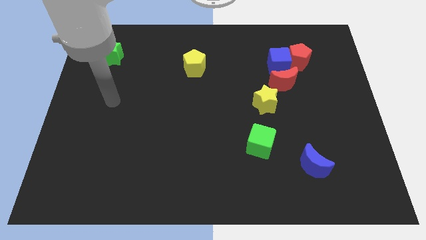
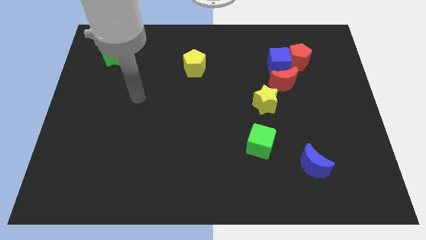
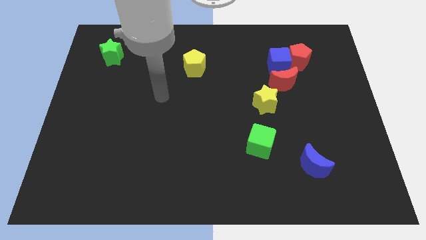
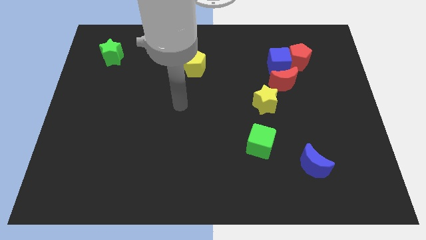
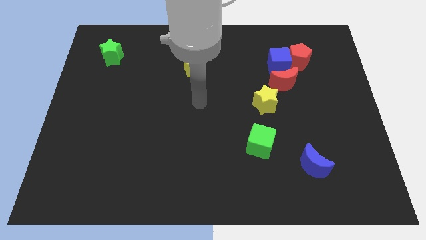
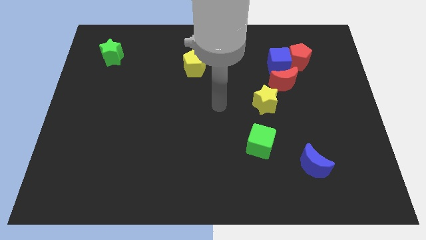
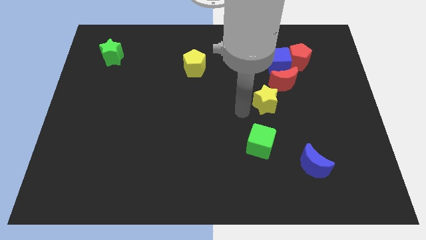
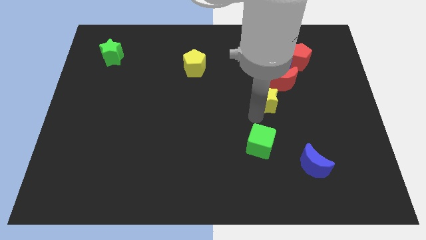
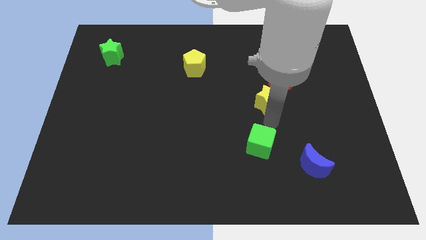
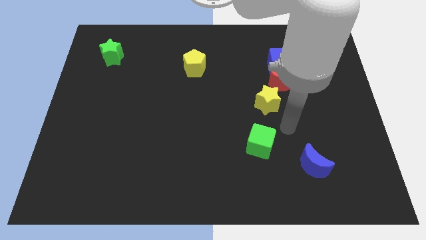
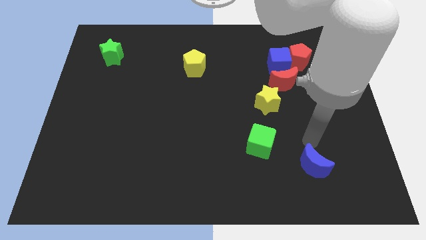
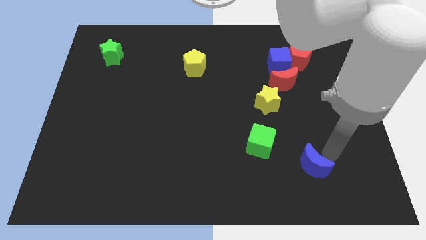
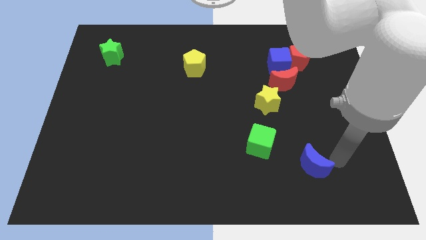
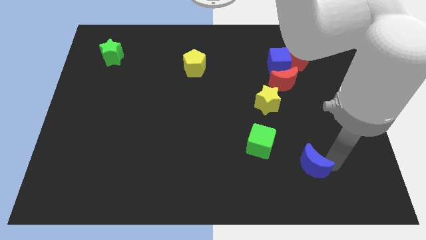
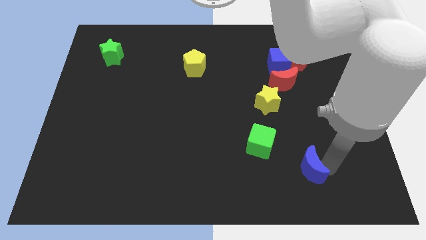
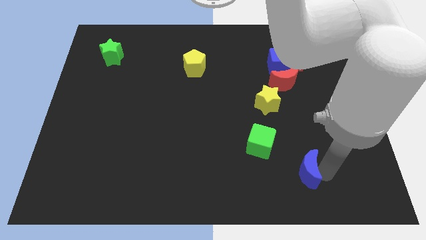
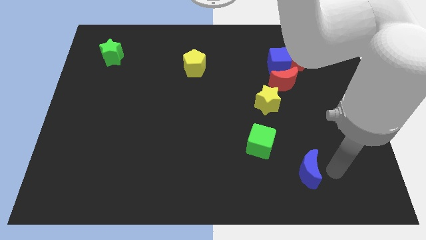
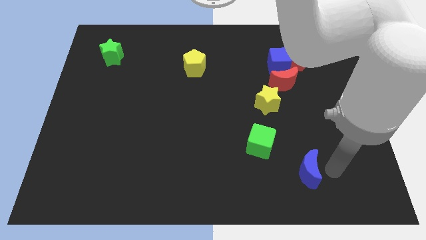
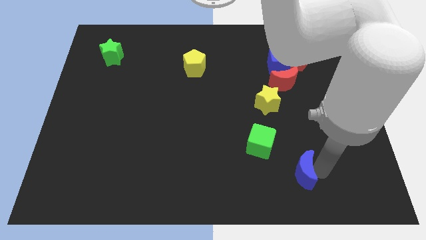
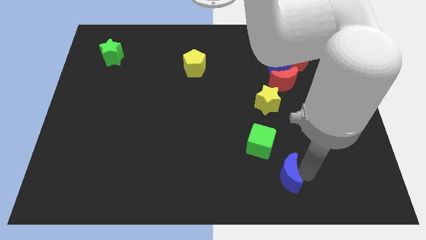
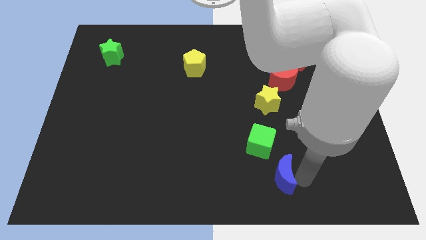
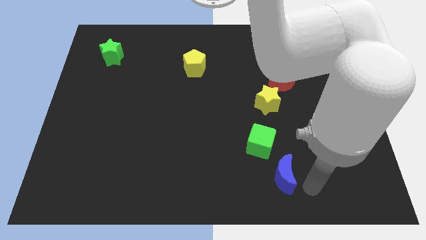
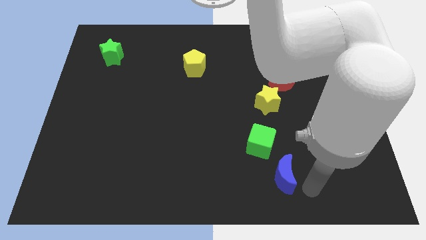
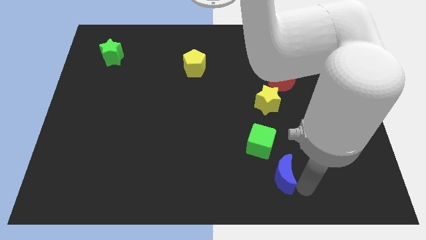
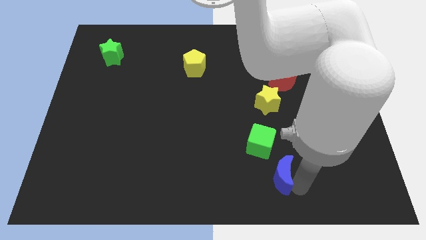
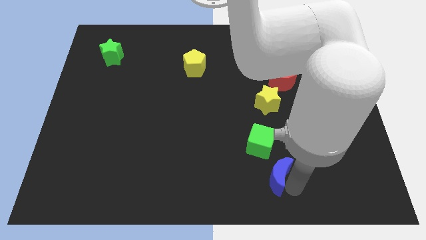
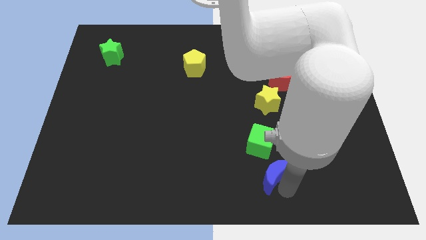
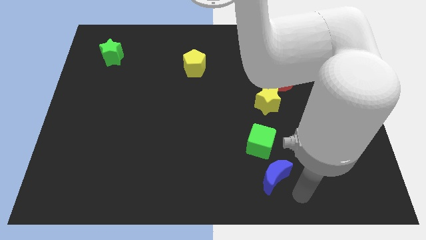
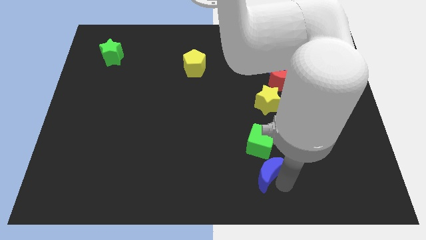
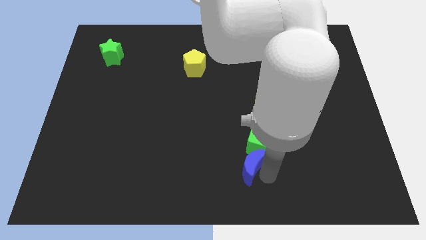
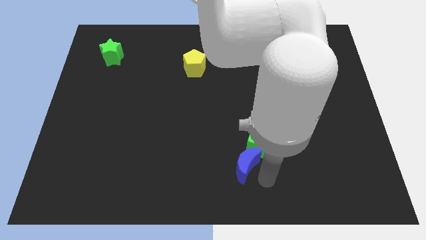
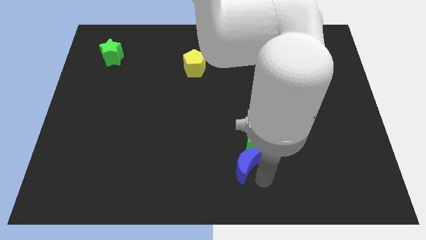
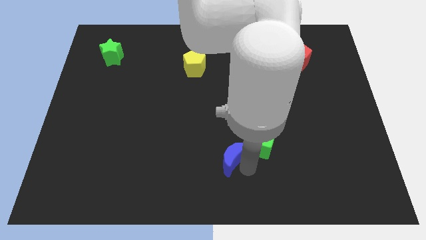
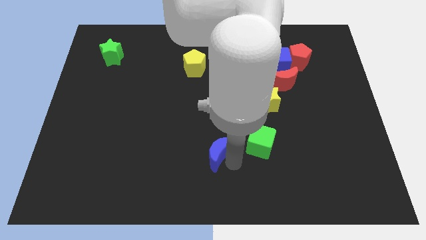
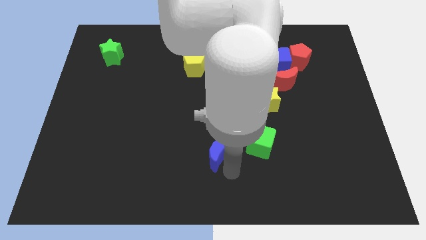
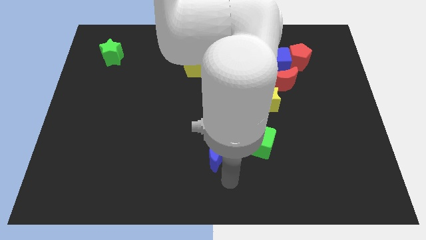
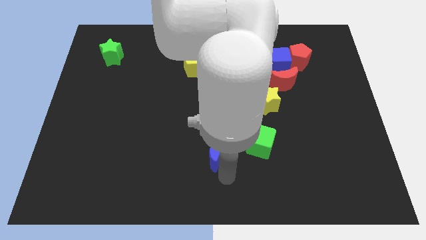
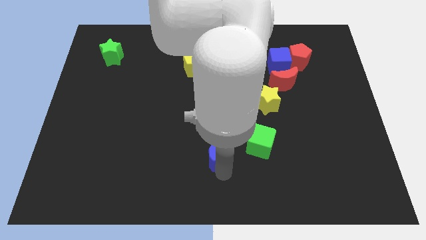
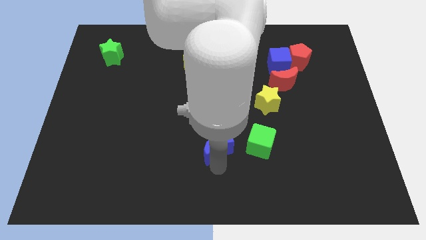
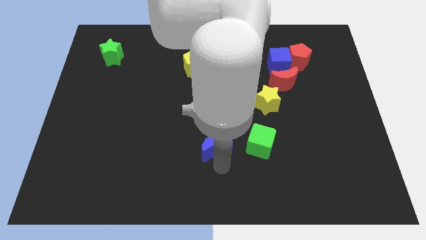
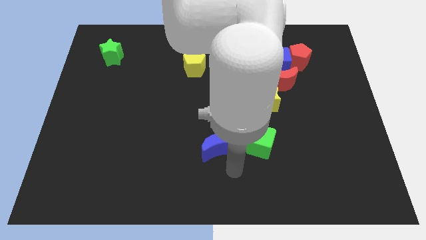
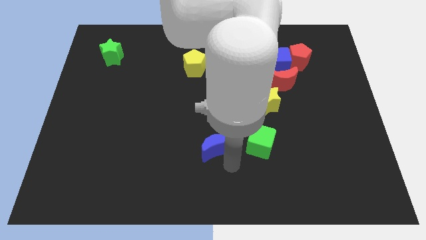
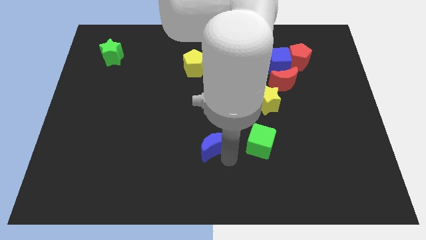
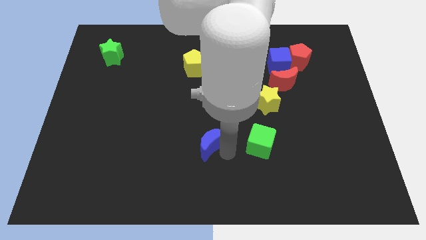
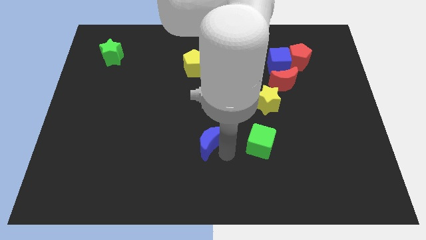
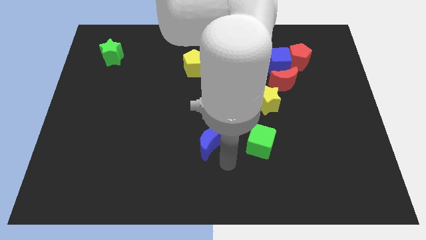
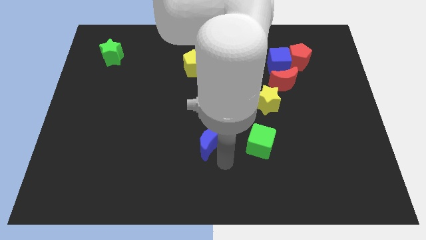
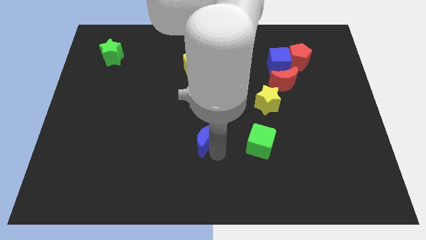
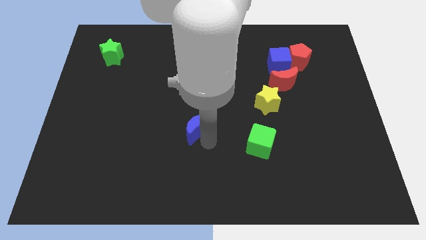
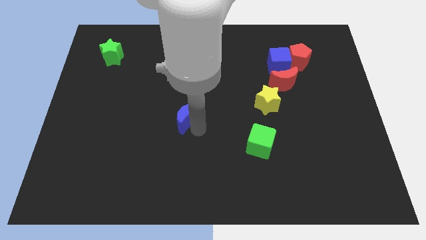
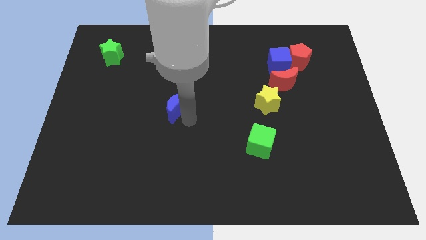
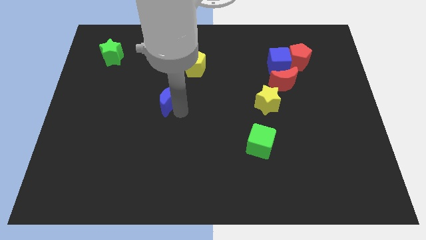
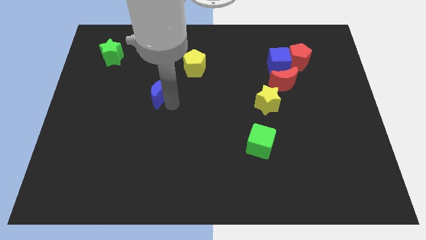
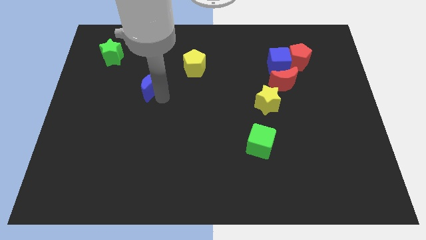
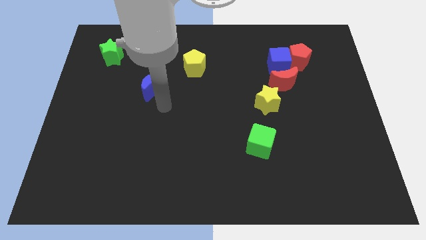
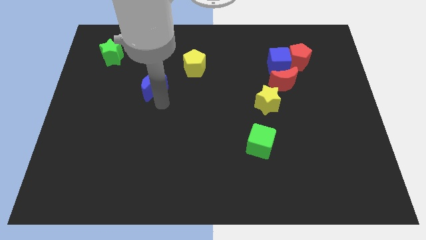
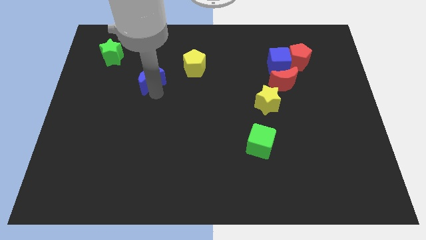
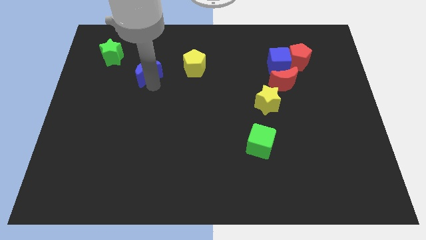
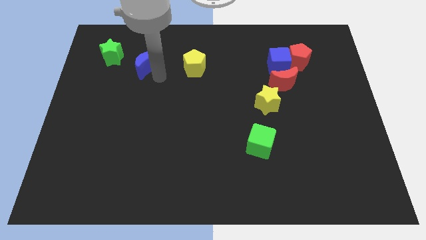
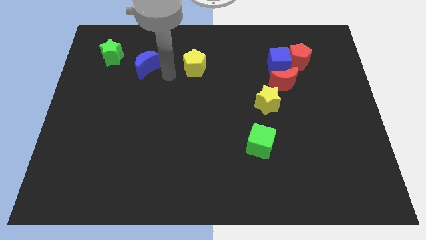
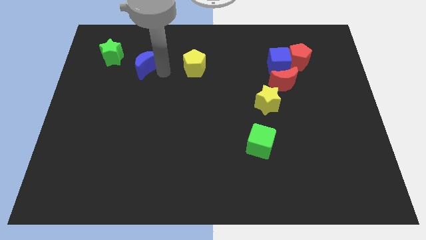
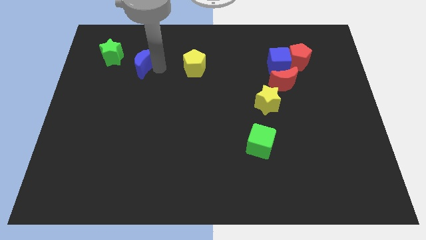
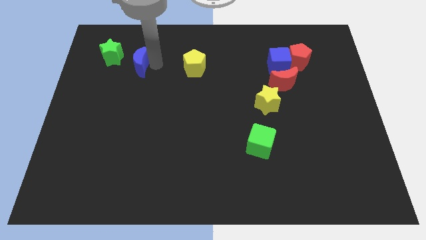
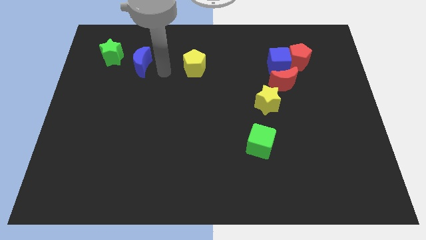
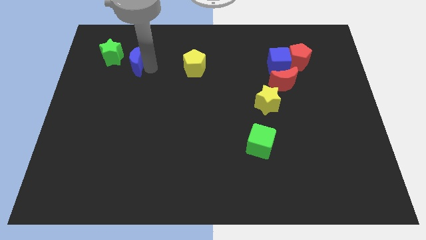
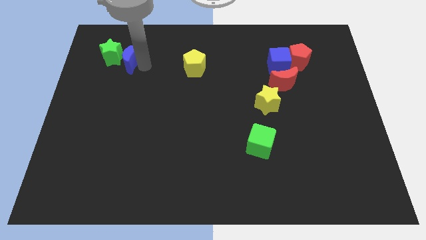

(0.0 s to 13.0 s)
push the blue moon towards the green star

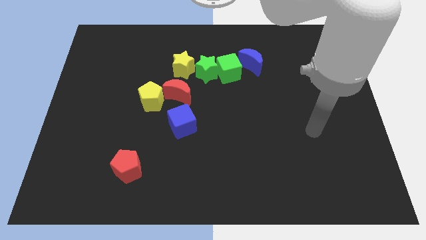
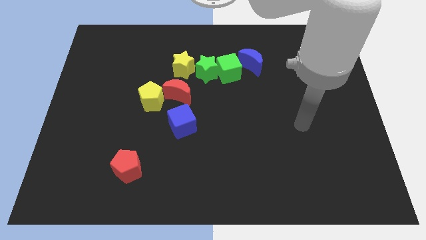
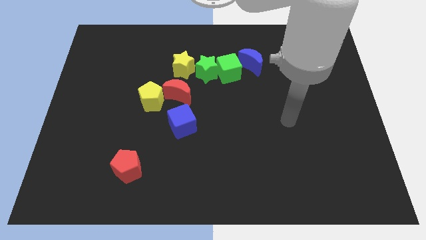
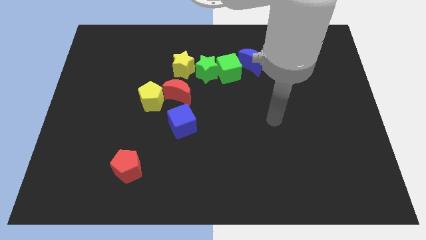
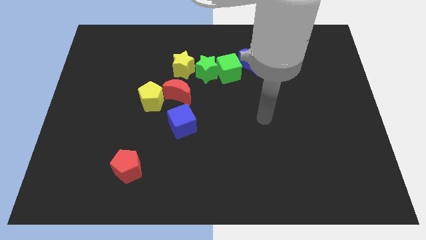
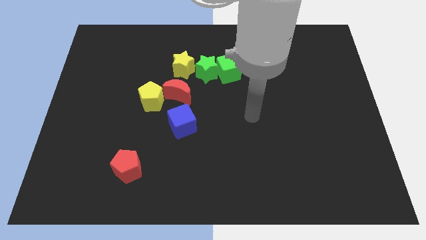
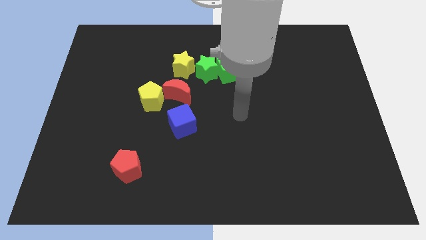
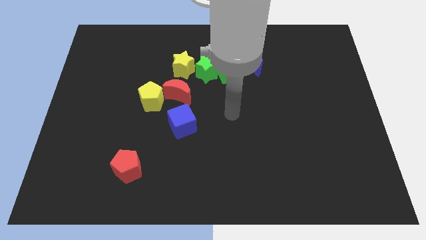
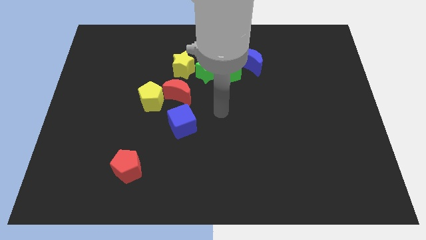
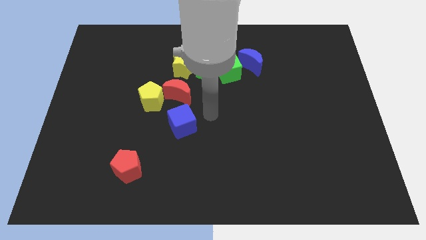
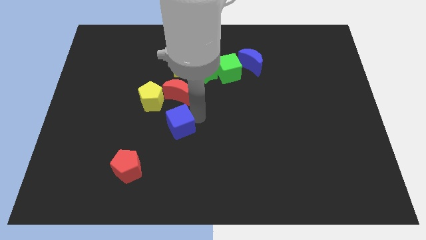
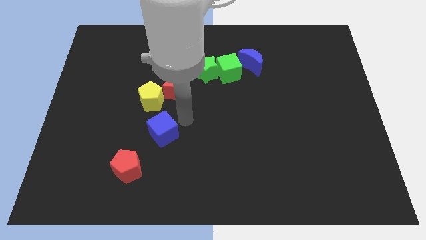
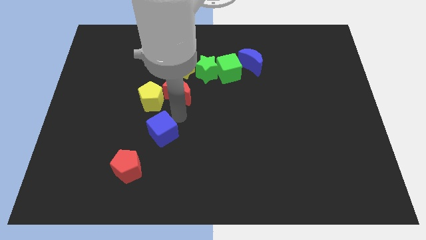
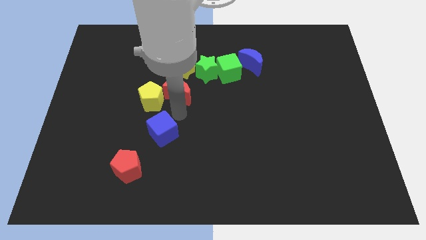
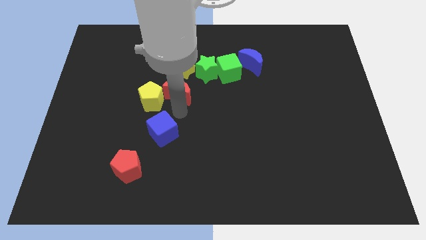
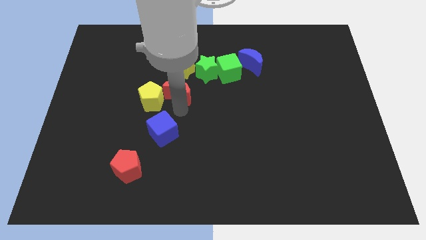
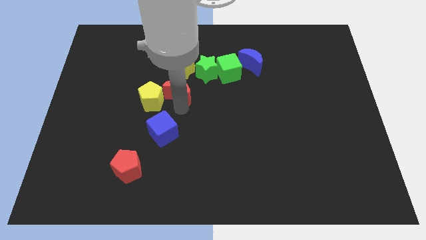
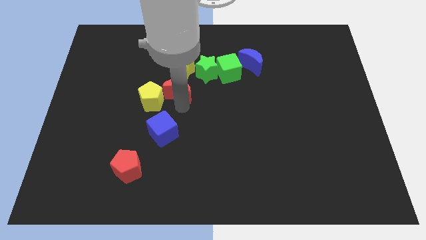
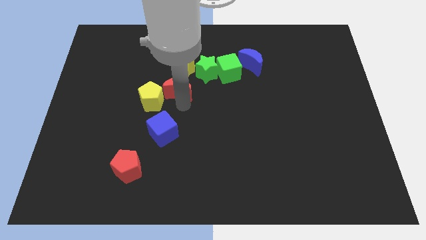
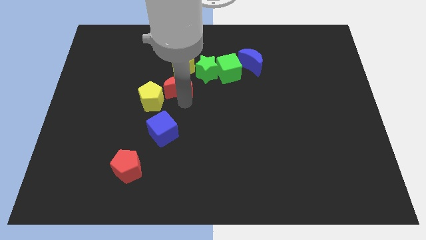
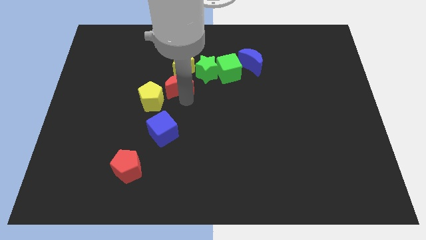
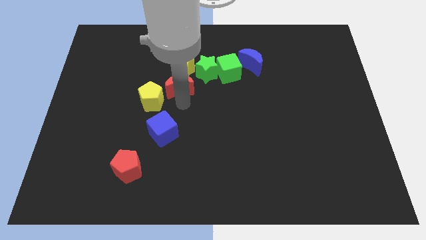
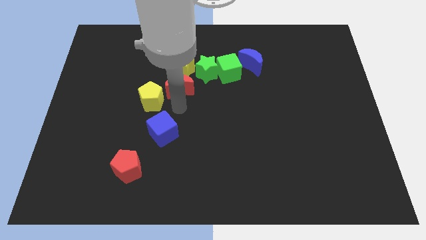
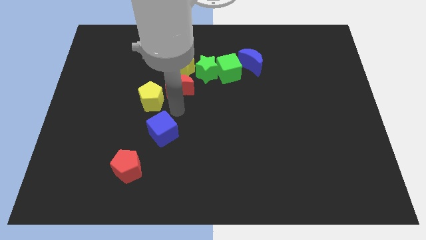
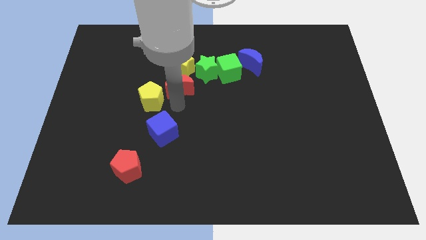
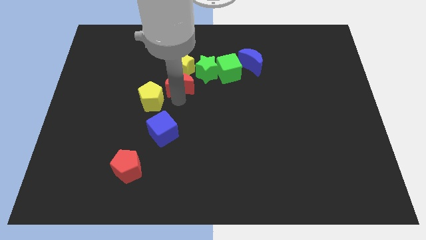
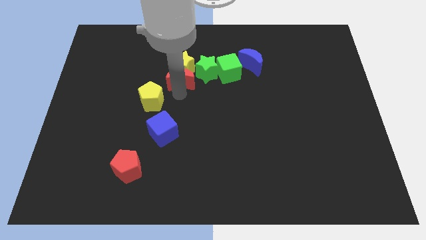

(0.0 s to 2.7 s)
move the red moon next to the yellow star
